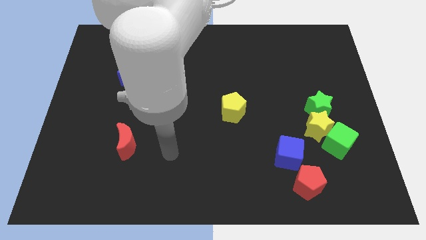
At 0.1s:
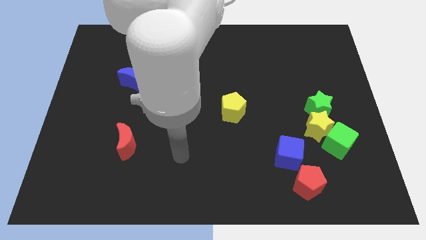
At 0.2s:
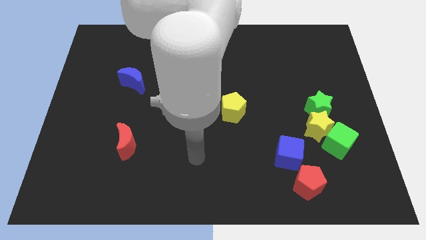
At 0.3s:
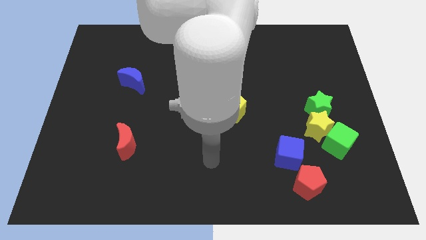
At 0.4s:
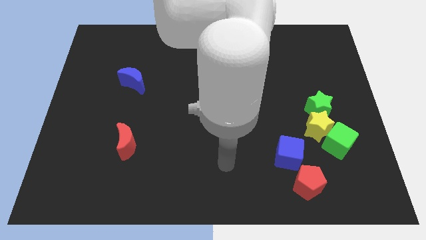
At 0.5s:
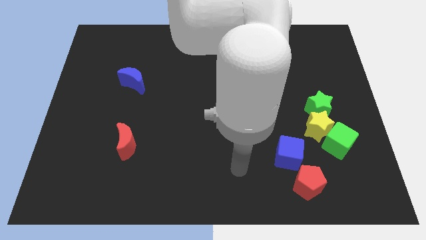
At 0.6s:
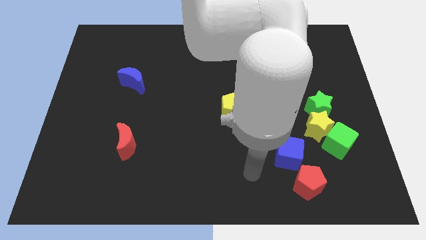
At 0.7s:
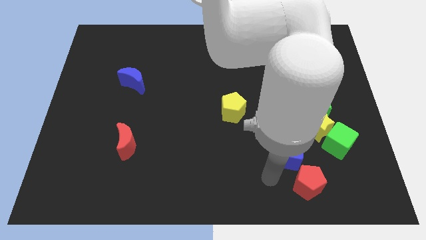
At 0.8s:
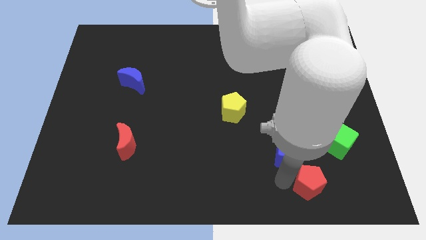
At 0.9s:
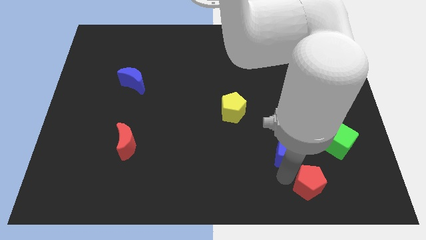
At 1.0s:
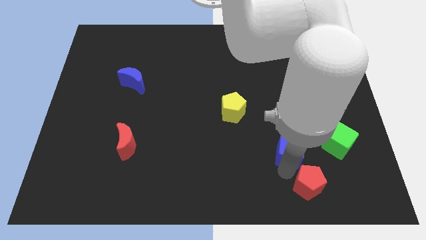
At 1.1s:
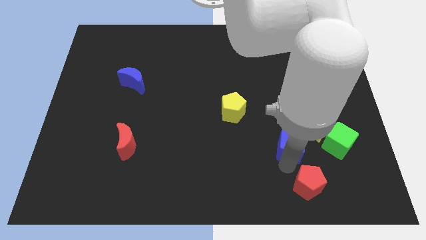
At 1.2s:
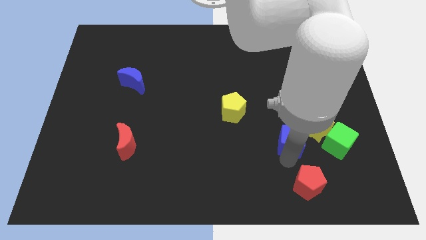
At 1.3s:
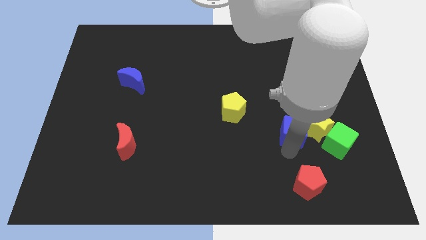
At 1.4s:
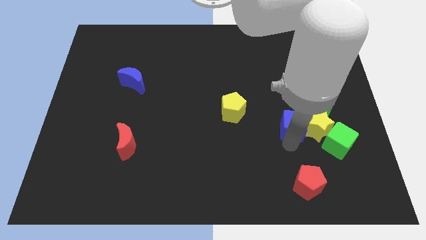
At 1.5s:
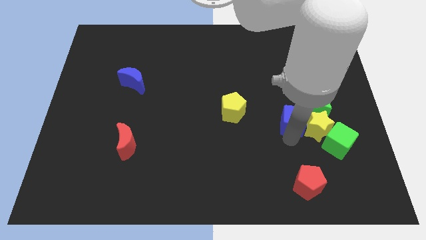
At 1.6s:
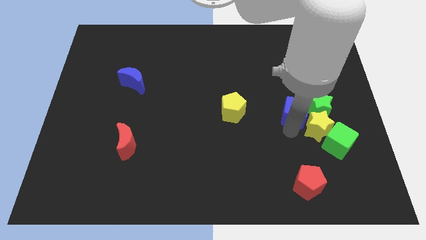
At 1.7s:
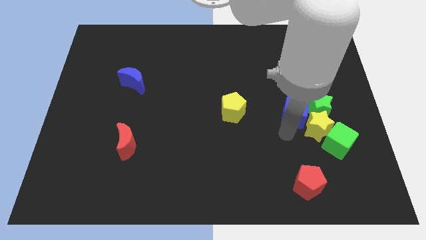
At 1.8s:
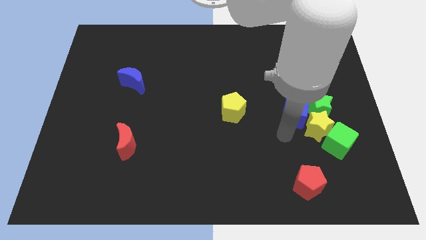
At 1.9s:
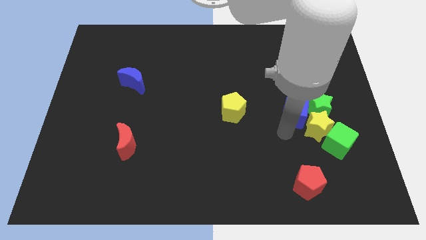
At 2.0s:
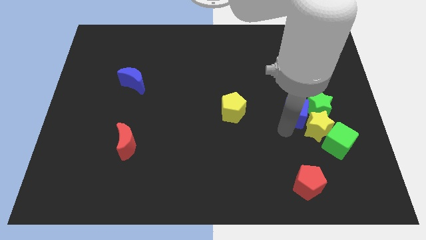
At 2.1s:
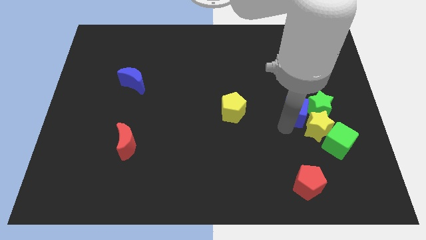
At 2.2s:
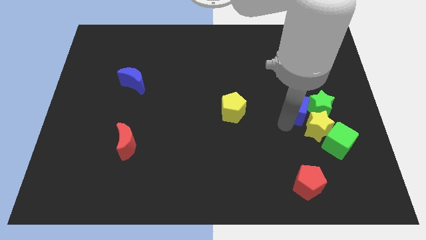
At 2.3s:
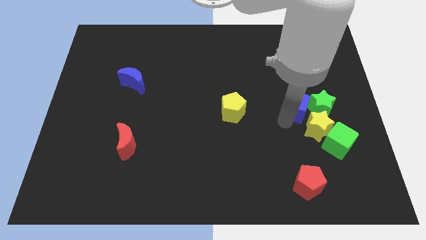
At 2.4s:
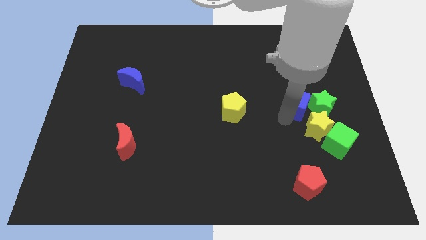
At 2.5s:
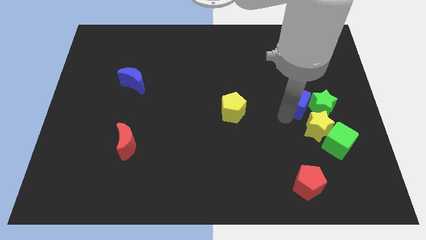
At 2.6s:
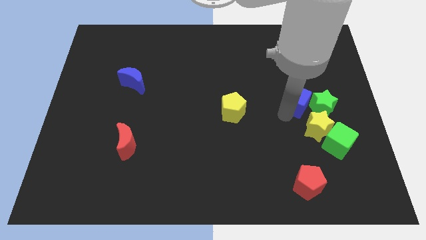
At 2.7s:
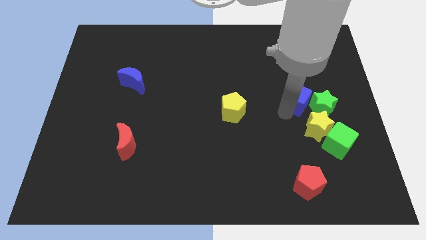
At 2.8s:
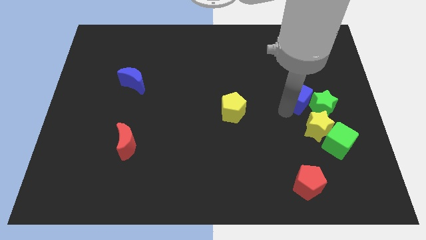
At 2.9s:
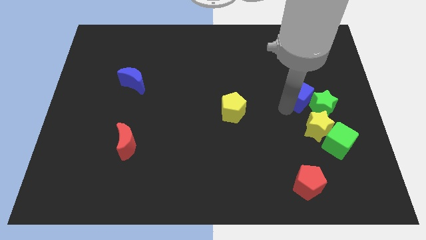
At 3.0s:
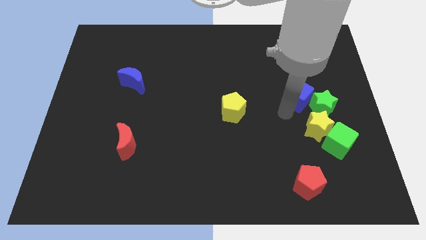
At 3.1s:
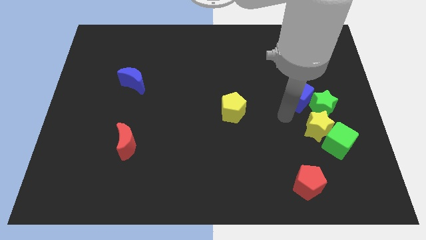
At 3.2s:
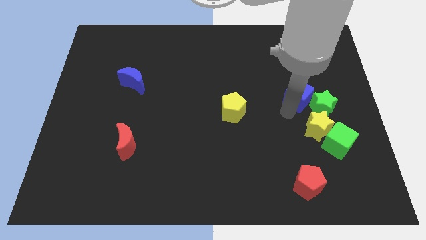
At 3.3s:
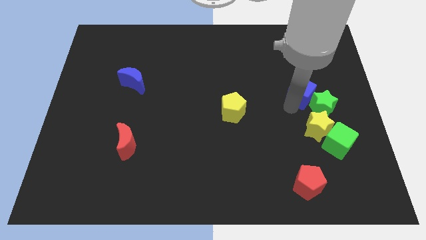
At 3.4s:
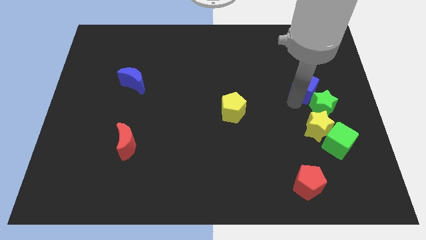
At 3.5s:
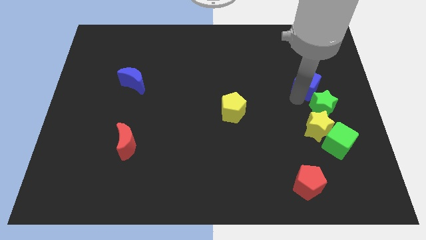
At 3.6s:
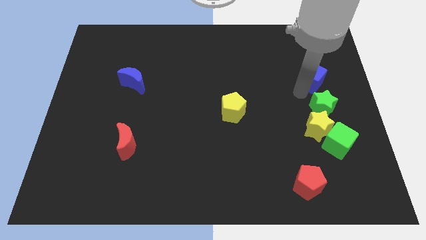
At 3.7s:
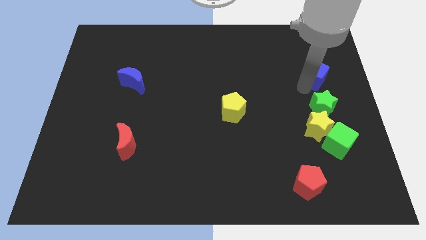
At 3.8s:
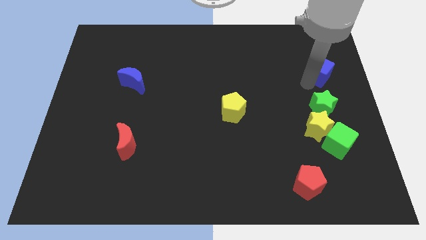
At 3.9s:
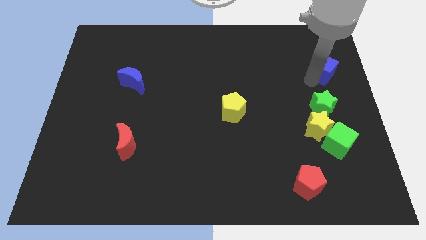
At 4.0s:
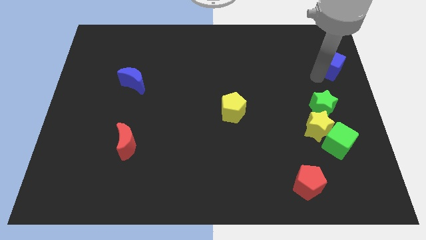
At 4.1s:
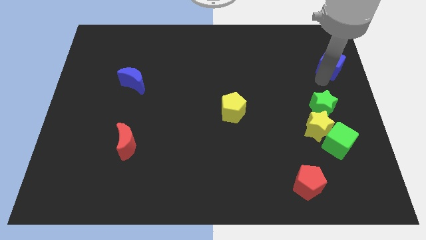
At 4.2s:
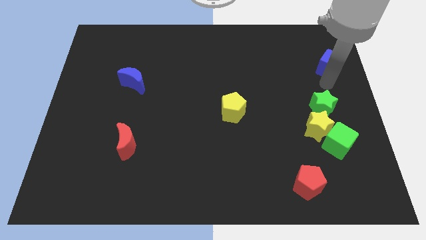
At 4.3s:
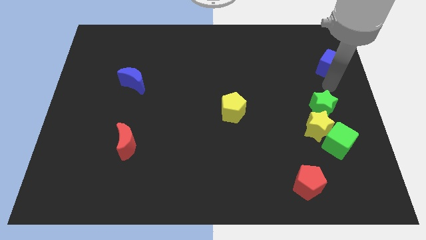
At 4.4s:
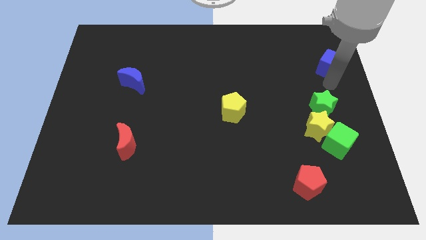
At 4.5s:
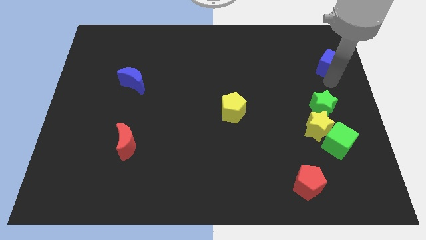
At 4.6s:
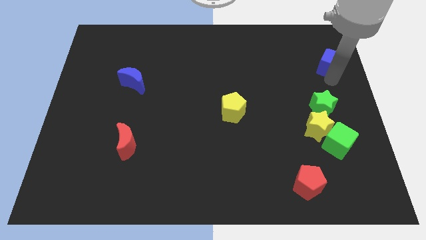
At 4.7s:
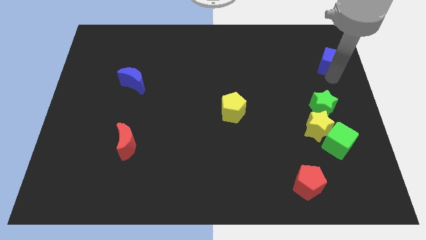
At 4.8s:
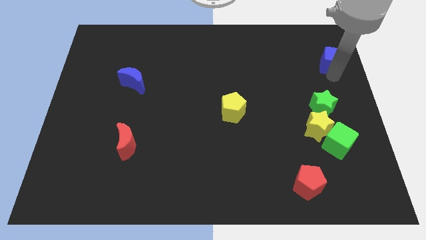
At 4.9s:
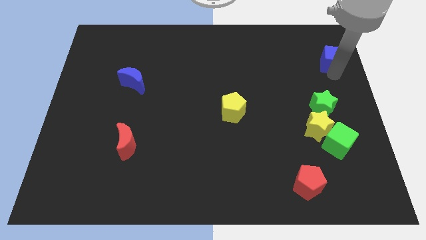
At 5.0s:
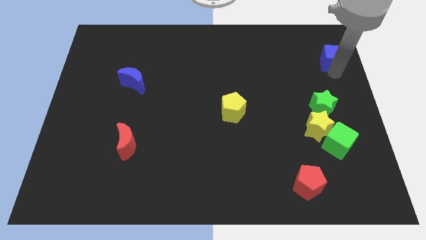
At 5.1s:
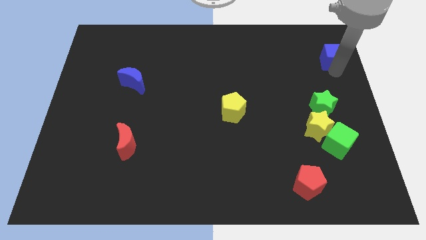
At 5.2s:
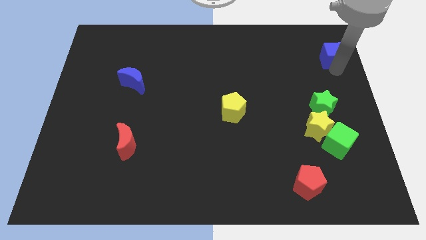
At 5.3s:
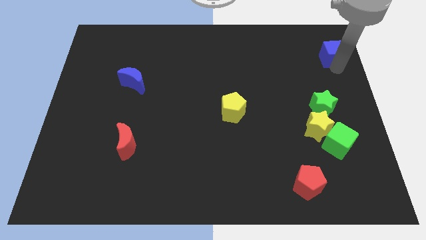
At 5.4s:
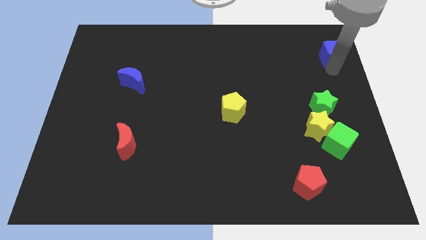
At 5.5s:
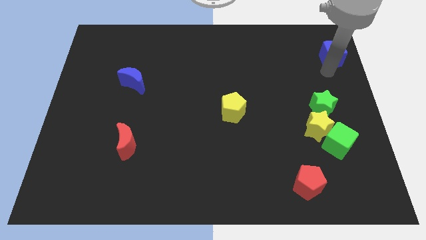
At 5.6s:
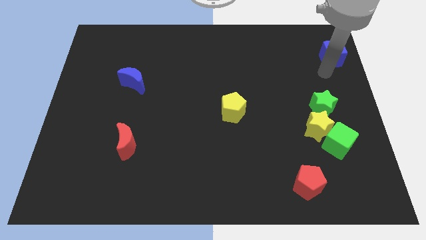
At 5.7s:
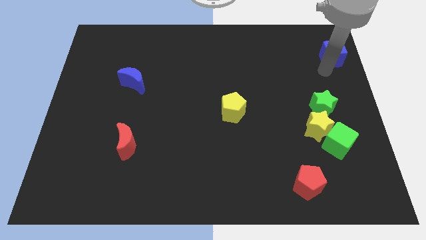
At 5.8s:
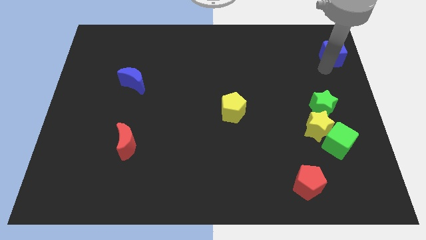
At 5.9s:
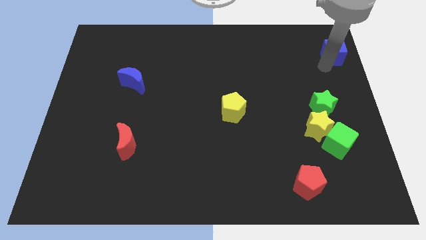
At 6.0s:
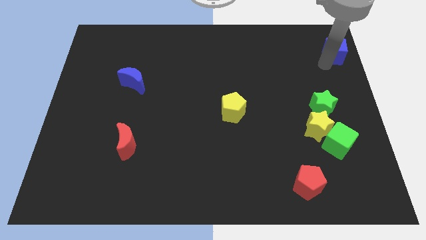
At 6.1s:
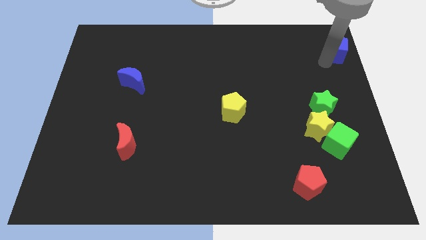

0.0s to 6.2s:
put the blue cube to the top right

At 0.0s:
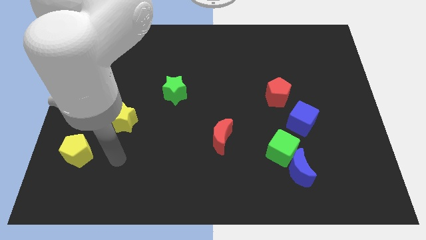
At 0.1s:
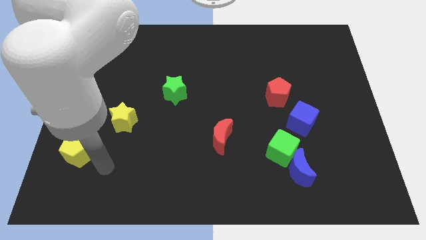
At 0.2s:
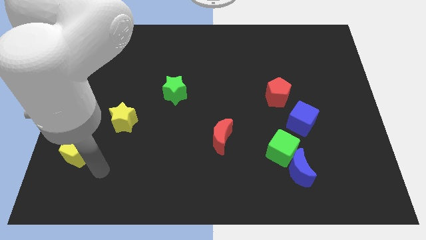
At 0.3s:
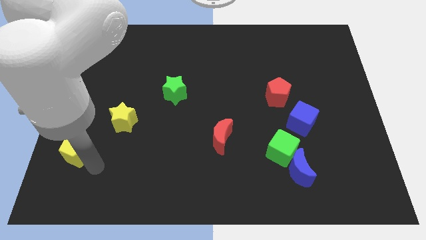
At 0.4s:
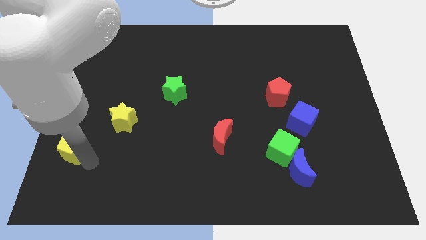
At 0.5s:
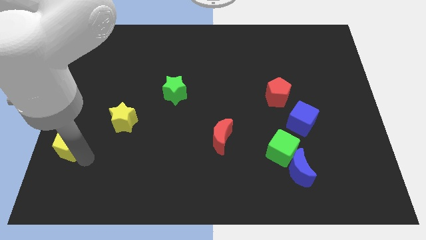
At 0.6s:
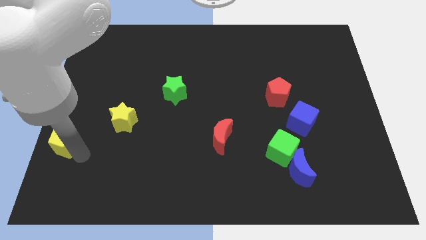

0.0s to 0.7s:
push the yellow pentagon to the left side
